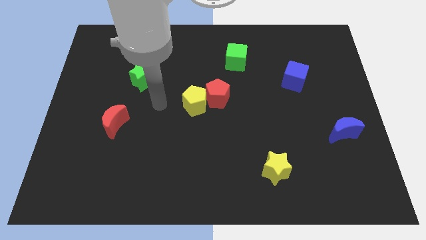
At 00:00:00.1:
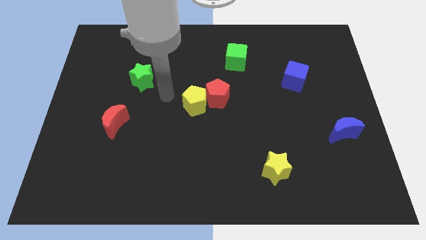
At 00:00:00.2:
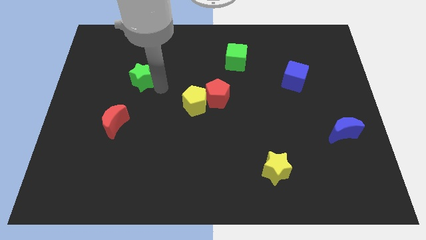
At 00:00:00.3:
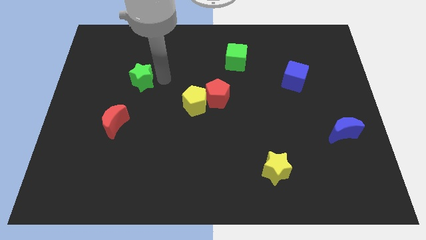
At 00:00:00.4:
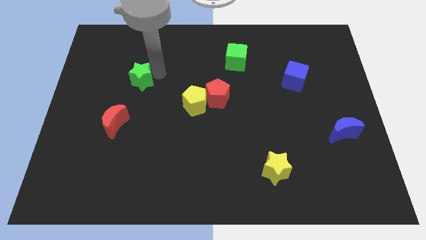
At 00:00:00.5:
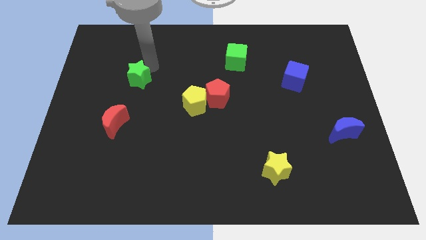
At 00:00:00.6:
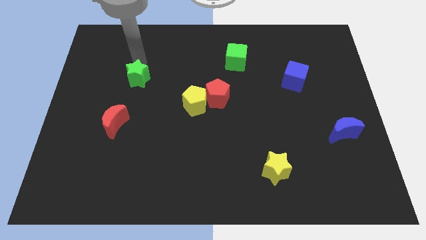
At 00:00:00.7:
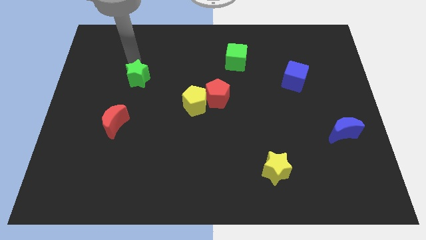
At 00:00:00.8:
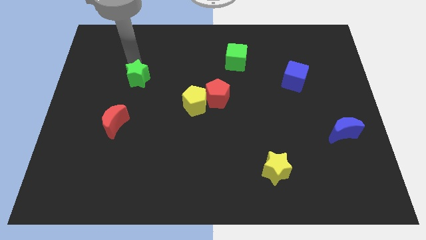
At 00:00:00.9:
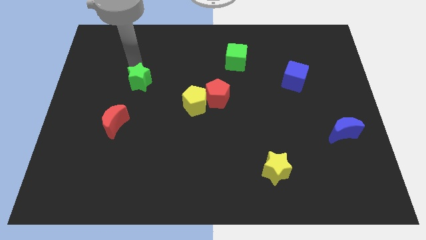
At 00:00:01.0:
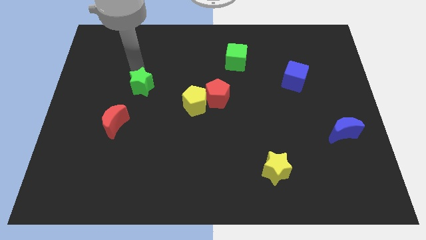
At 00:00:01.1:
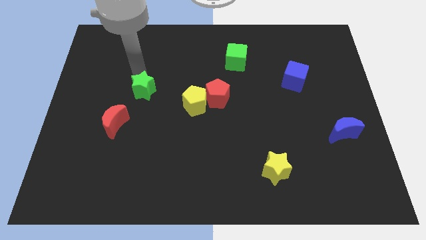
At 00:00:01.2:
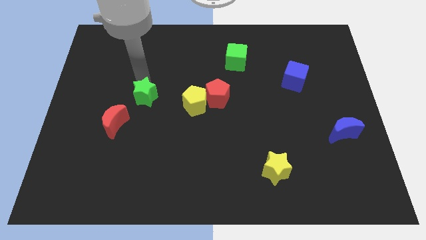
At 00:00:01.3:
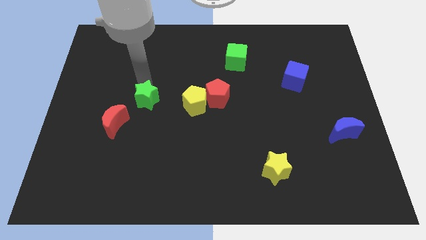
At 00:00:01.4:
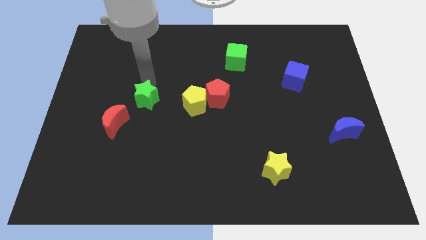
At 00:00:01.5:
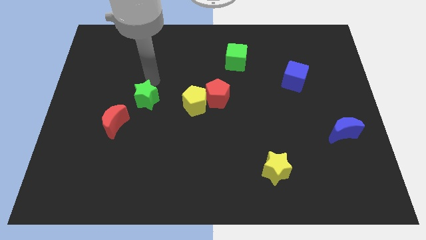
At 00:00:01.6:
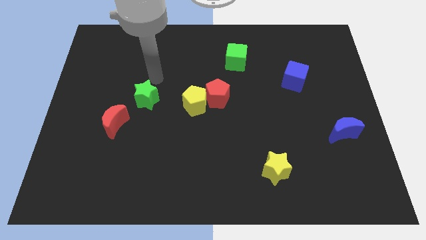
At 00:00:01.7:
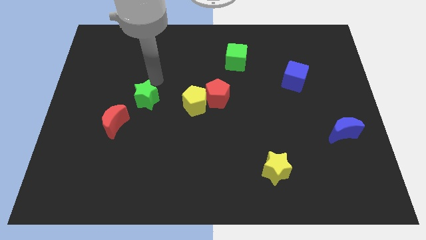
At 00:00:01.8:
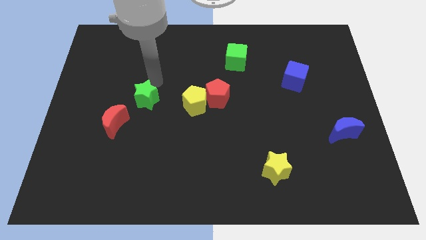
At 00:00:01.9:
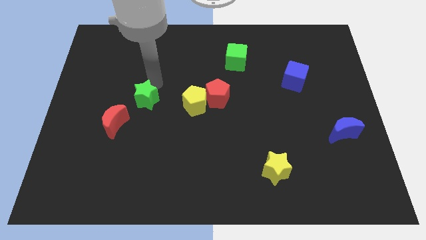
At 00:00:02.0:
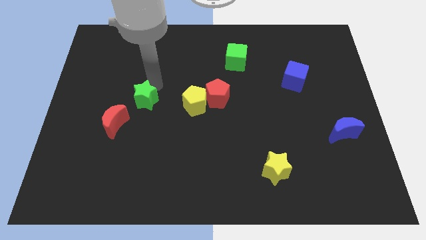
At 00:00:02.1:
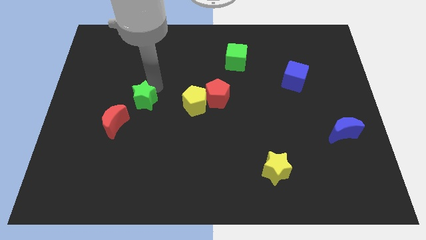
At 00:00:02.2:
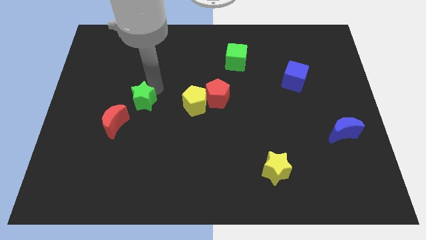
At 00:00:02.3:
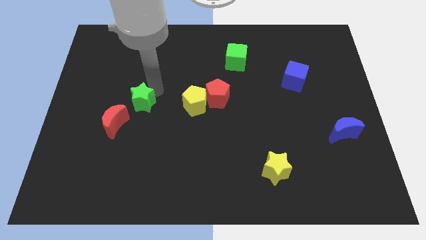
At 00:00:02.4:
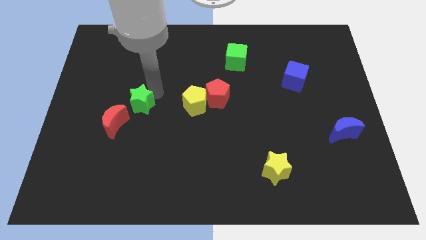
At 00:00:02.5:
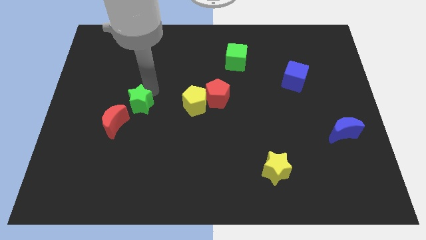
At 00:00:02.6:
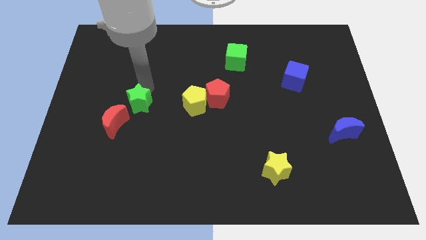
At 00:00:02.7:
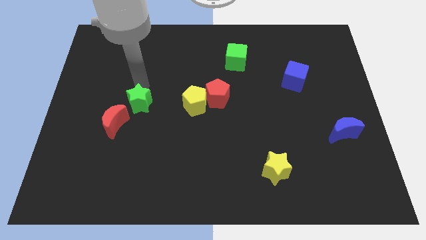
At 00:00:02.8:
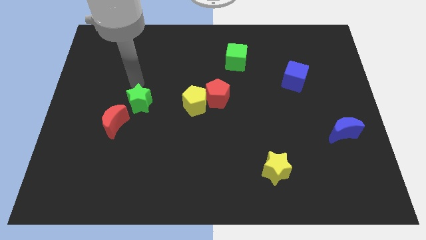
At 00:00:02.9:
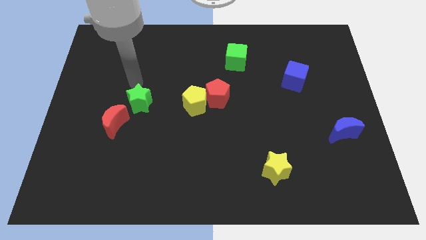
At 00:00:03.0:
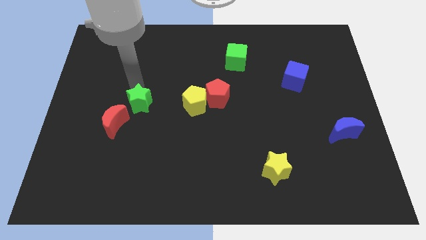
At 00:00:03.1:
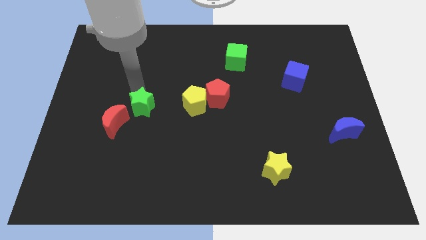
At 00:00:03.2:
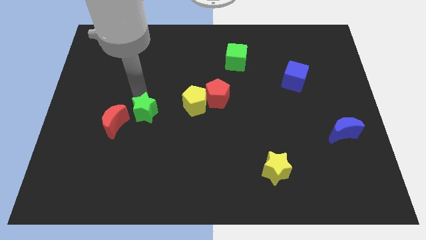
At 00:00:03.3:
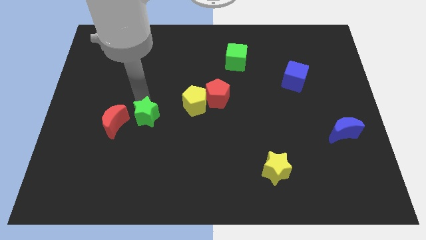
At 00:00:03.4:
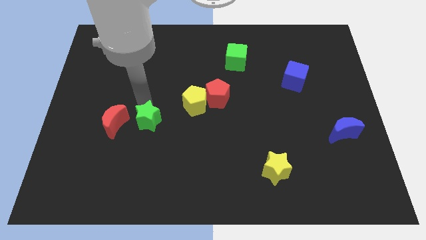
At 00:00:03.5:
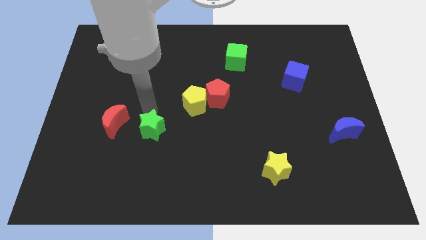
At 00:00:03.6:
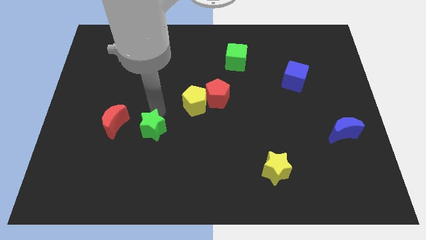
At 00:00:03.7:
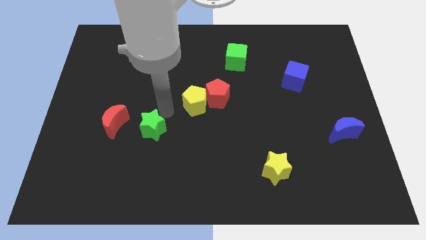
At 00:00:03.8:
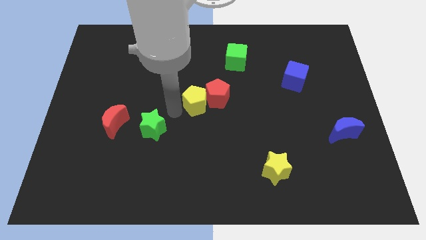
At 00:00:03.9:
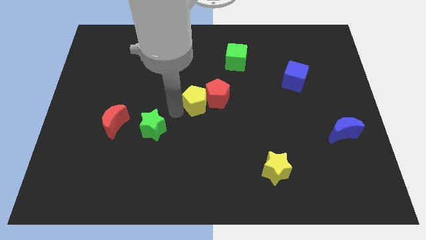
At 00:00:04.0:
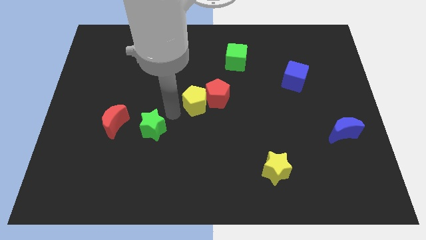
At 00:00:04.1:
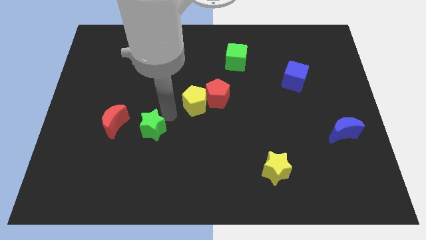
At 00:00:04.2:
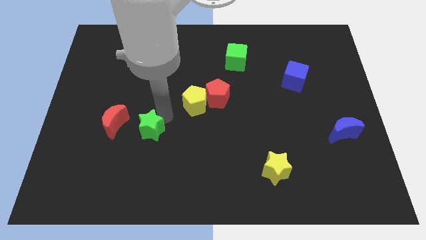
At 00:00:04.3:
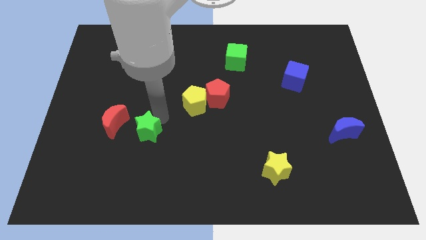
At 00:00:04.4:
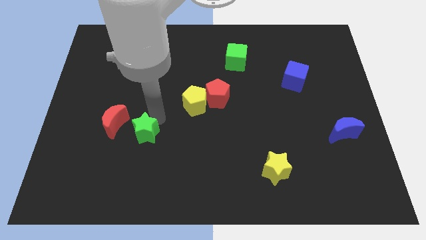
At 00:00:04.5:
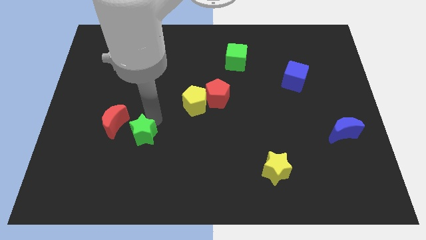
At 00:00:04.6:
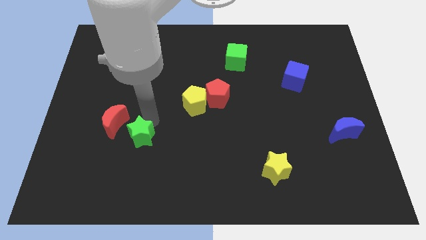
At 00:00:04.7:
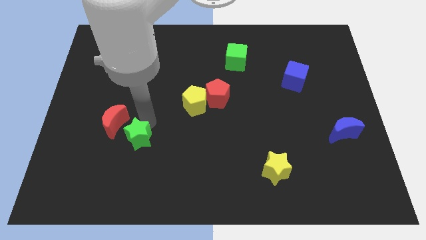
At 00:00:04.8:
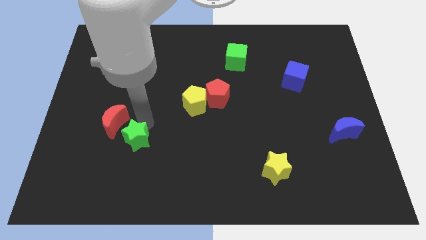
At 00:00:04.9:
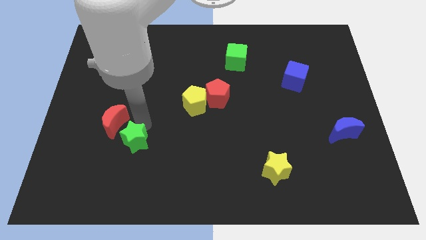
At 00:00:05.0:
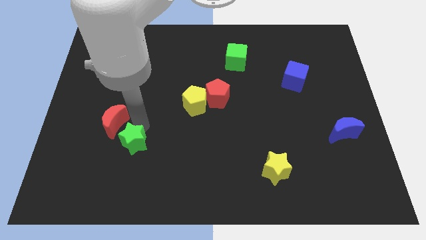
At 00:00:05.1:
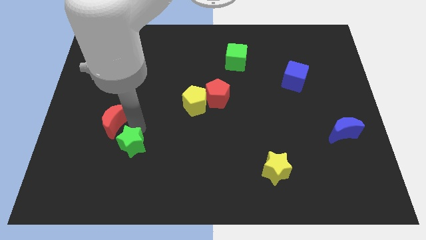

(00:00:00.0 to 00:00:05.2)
put the green star below the red moon

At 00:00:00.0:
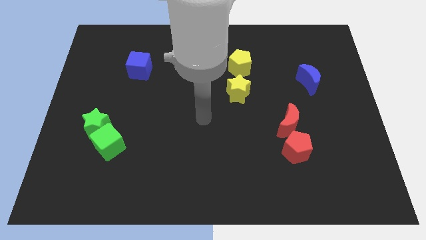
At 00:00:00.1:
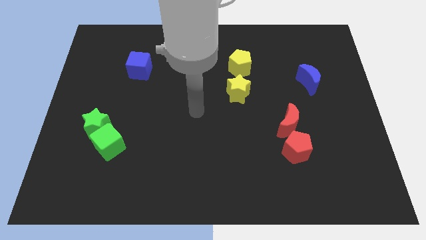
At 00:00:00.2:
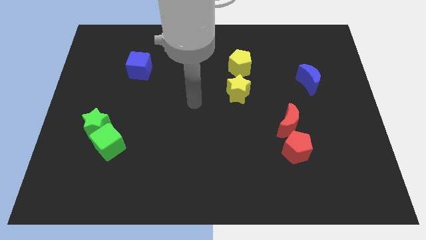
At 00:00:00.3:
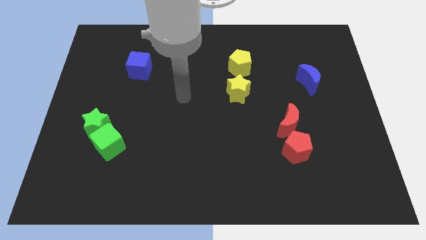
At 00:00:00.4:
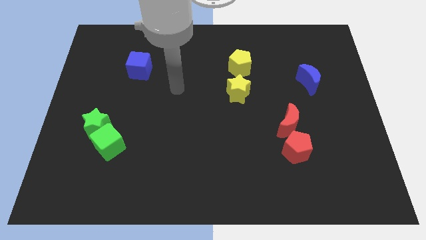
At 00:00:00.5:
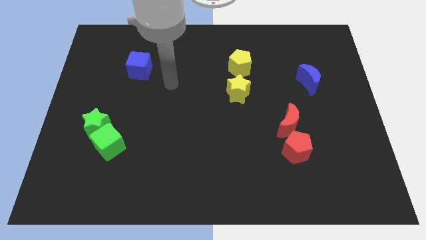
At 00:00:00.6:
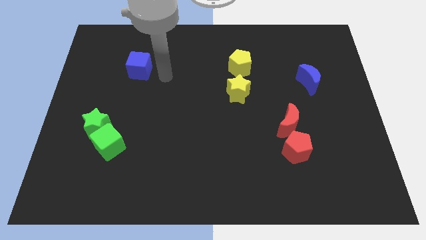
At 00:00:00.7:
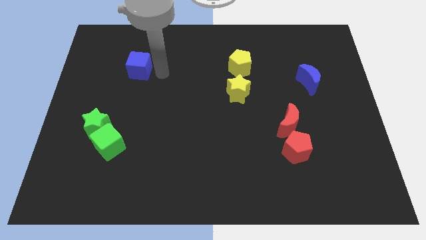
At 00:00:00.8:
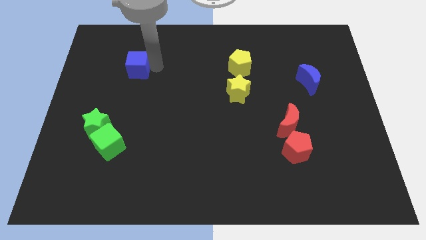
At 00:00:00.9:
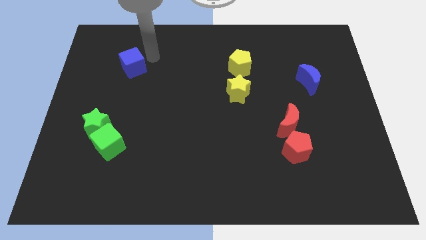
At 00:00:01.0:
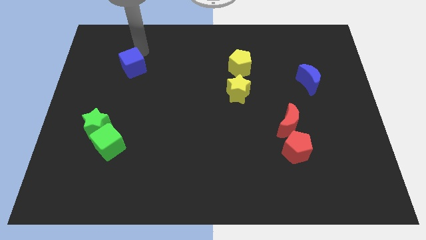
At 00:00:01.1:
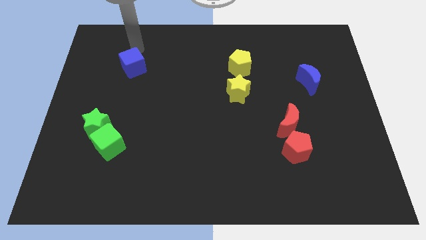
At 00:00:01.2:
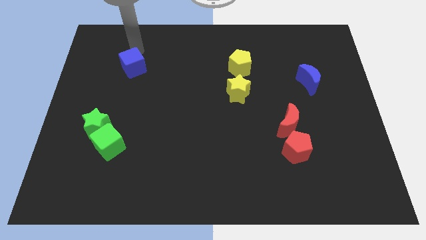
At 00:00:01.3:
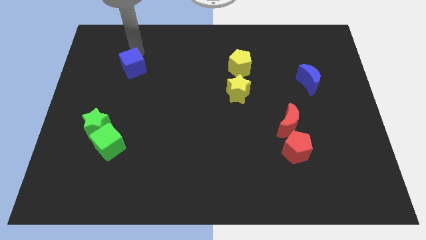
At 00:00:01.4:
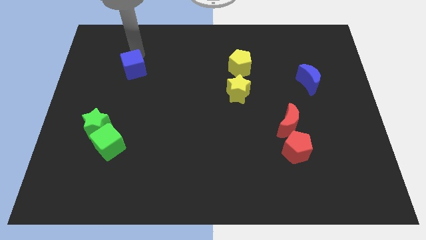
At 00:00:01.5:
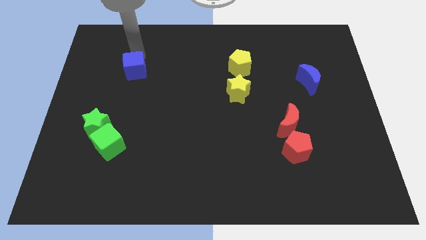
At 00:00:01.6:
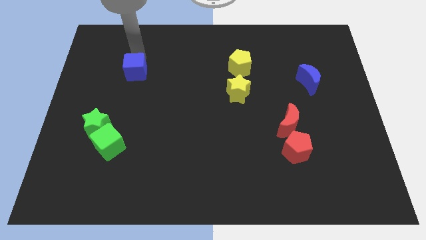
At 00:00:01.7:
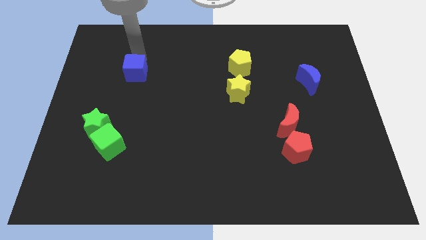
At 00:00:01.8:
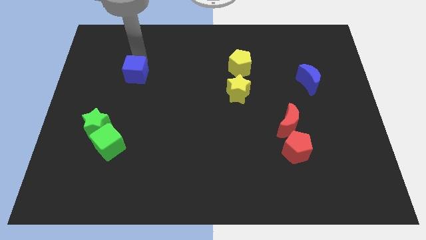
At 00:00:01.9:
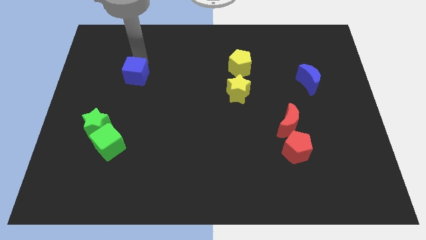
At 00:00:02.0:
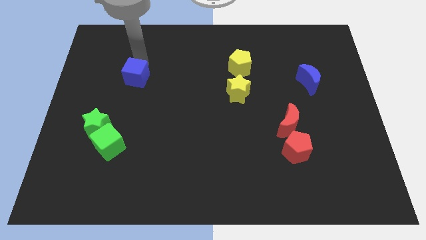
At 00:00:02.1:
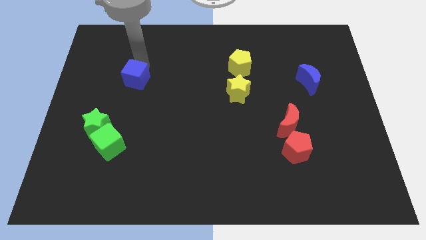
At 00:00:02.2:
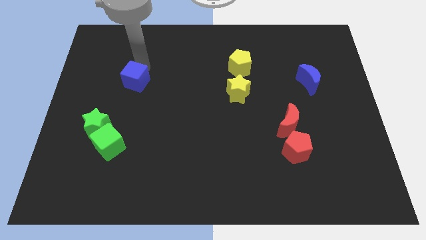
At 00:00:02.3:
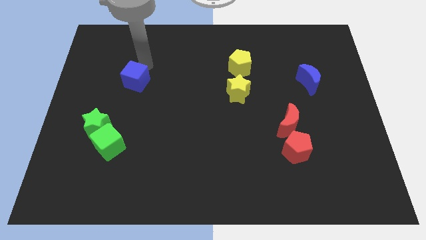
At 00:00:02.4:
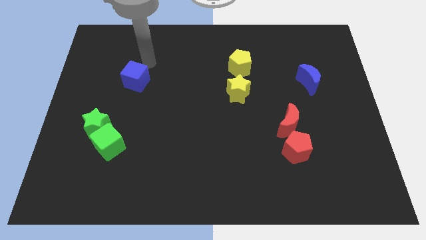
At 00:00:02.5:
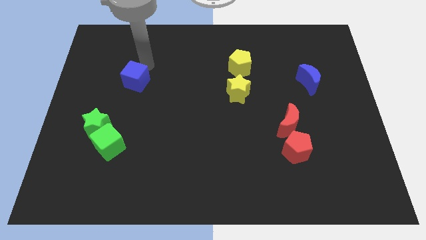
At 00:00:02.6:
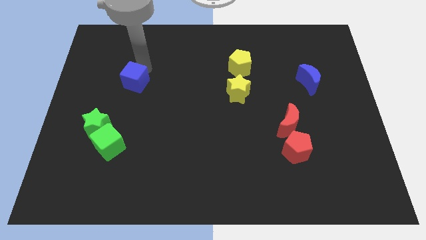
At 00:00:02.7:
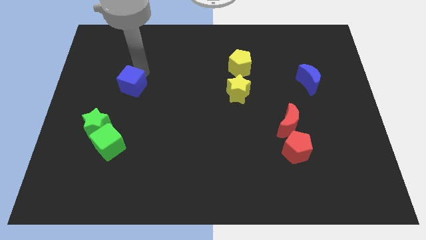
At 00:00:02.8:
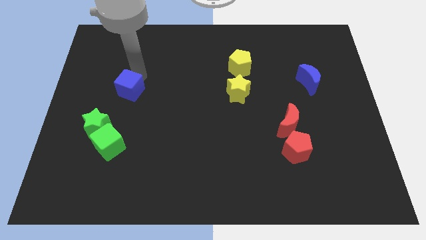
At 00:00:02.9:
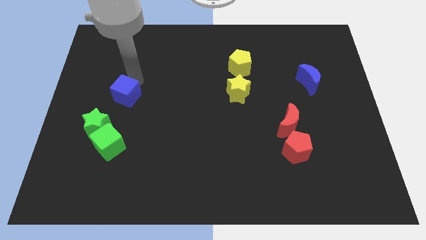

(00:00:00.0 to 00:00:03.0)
push the blue cube above the green cube
